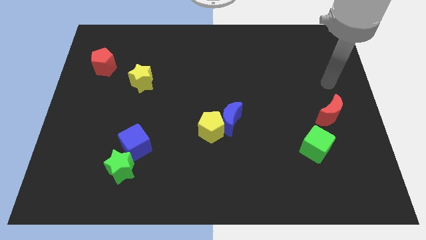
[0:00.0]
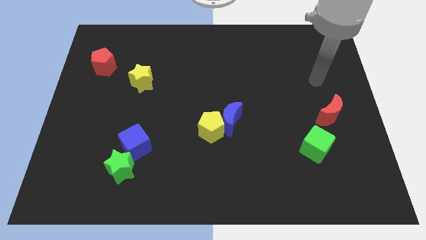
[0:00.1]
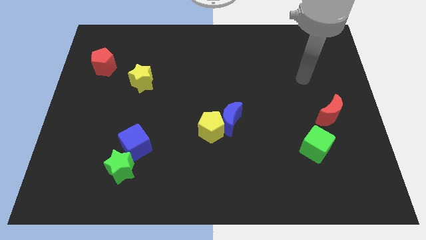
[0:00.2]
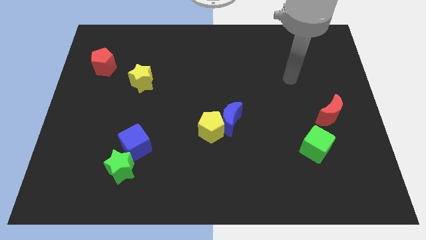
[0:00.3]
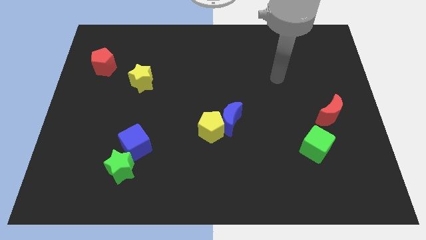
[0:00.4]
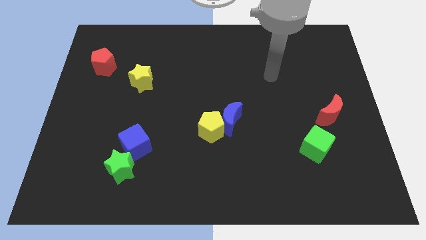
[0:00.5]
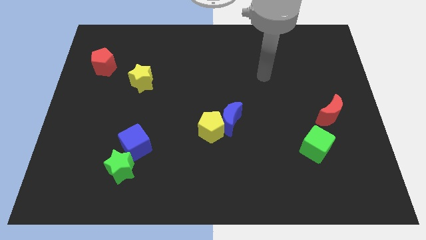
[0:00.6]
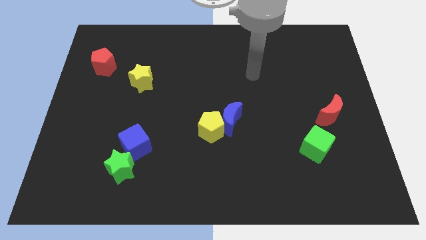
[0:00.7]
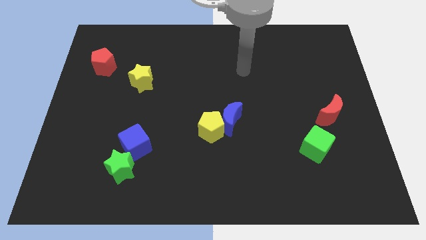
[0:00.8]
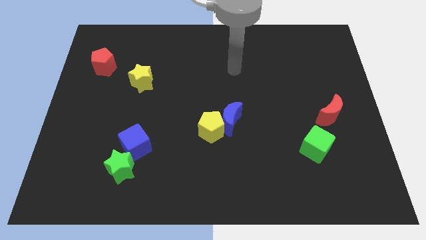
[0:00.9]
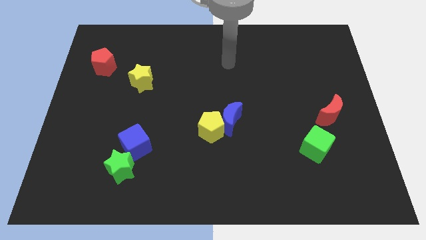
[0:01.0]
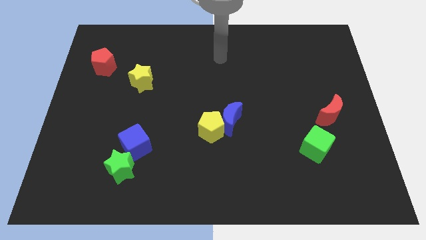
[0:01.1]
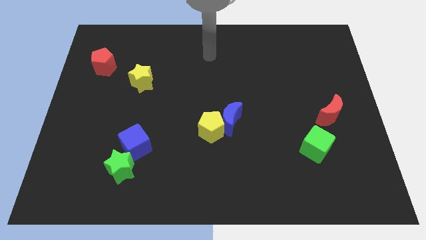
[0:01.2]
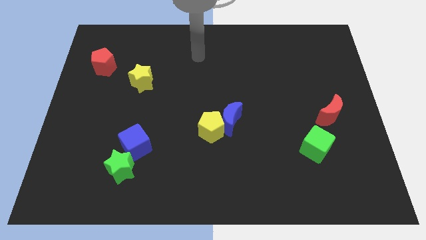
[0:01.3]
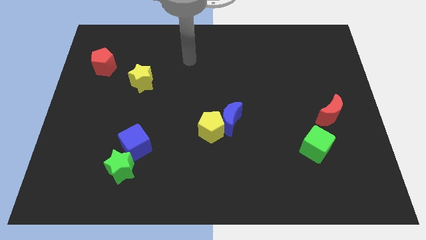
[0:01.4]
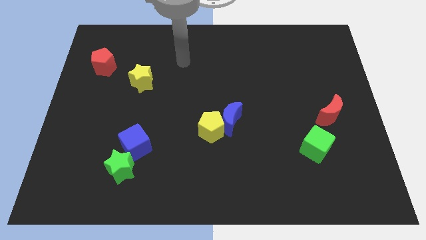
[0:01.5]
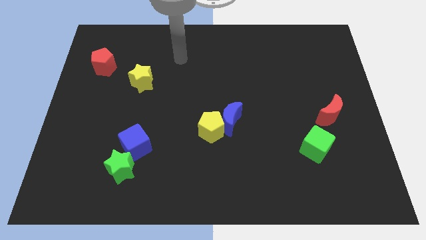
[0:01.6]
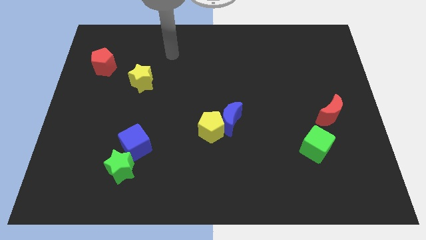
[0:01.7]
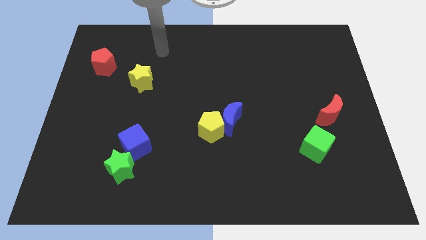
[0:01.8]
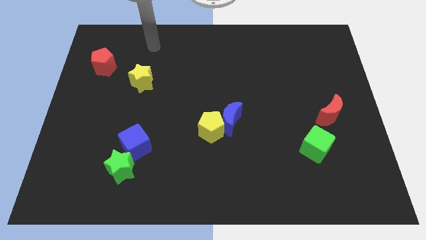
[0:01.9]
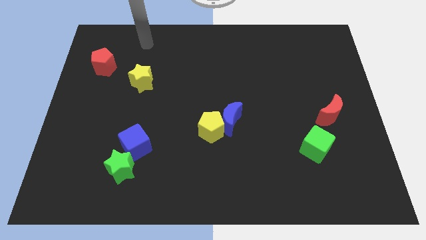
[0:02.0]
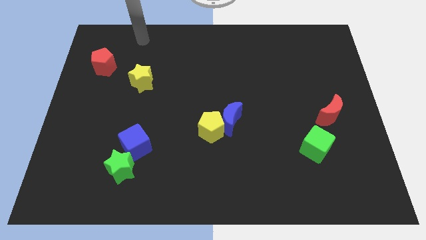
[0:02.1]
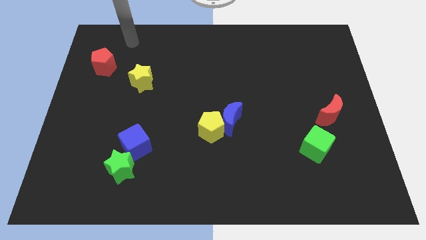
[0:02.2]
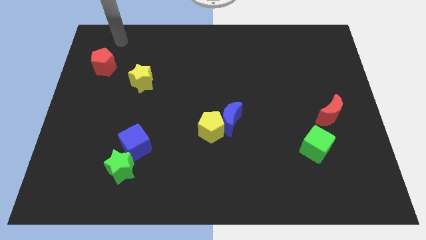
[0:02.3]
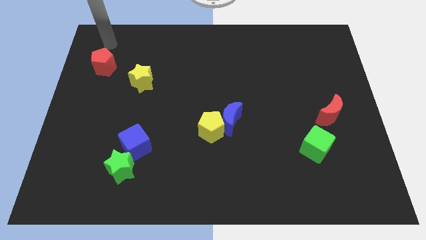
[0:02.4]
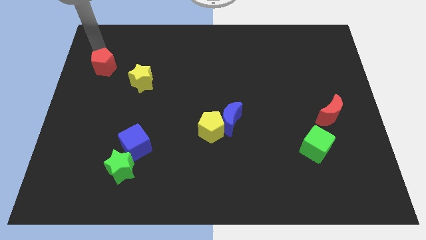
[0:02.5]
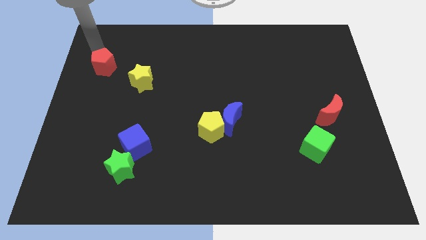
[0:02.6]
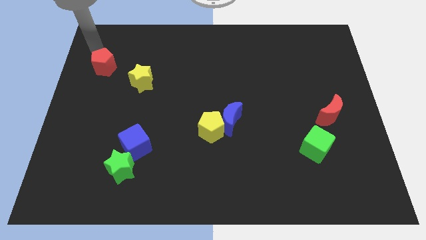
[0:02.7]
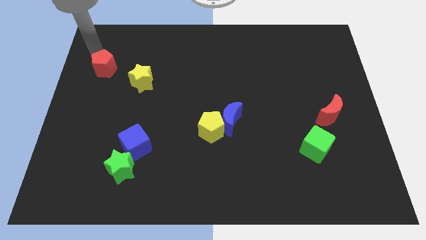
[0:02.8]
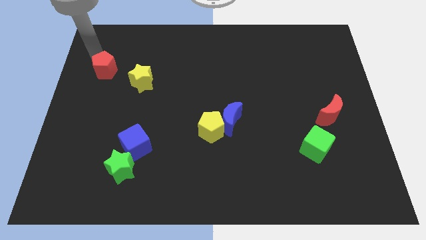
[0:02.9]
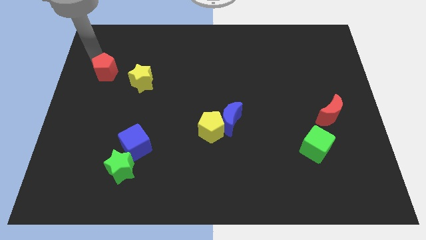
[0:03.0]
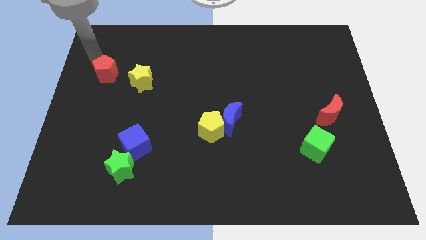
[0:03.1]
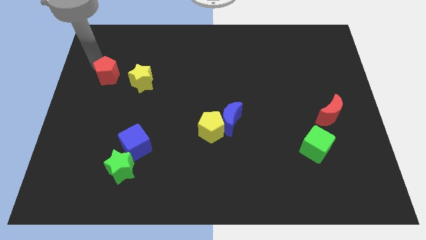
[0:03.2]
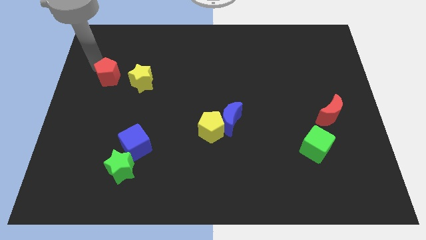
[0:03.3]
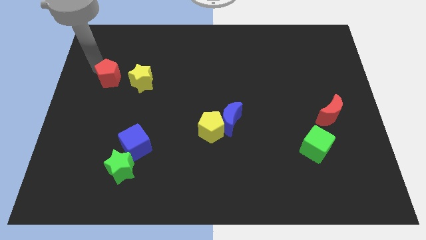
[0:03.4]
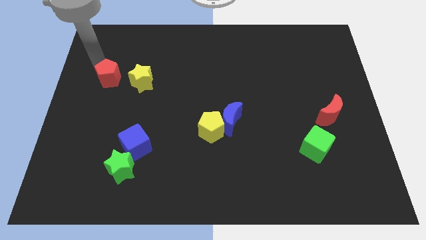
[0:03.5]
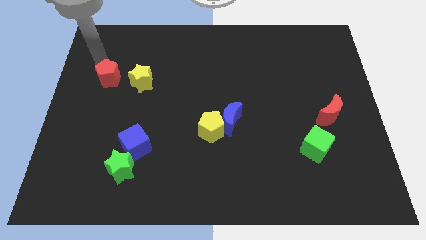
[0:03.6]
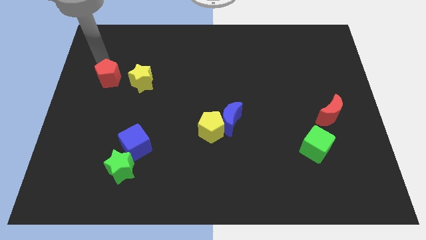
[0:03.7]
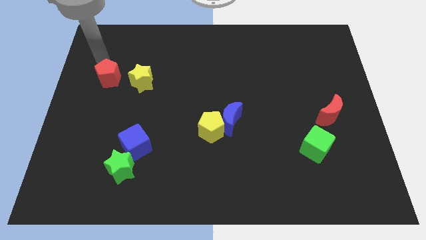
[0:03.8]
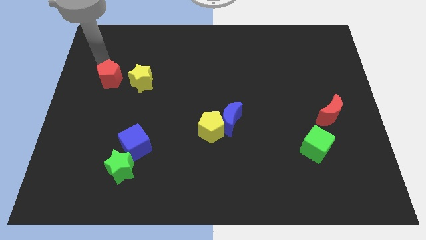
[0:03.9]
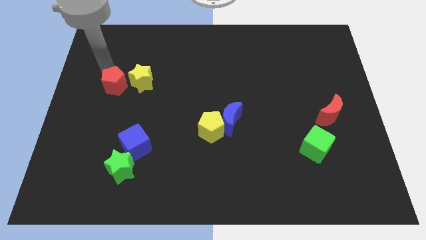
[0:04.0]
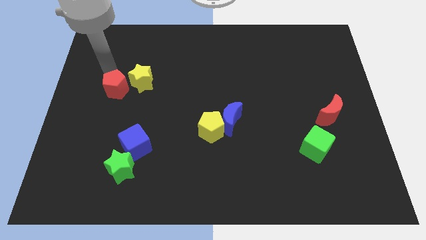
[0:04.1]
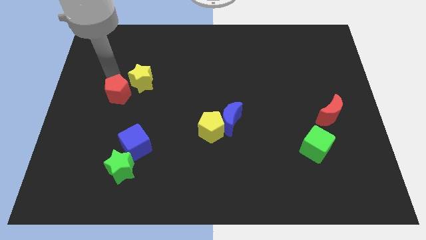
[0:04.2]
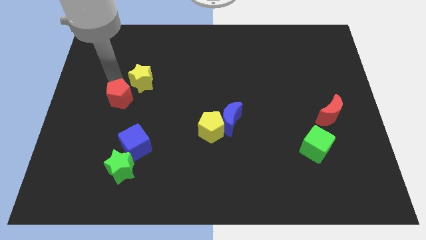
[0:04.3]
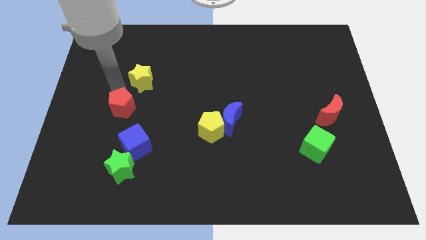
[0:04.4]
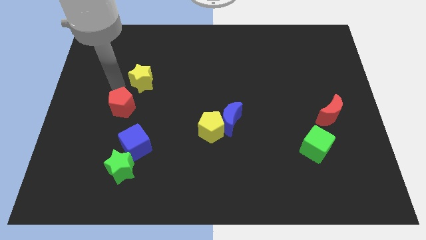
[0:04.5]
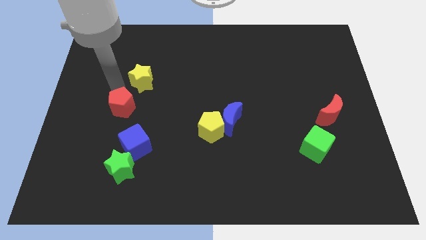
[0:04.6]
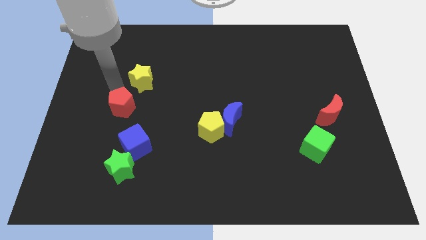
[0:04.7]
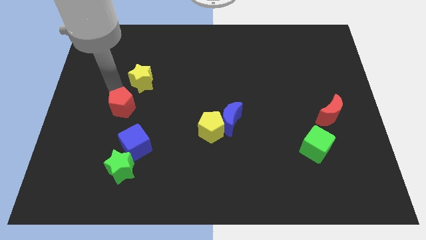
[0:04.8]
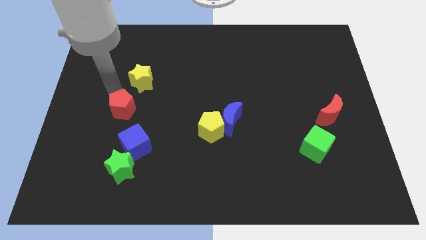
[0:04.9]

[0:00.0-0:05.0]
put the red pentagon above the green star

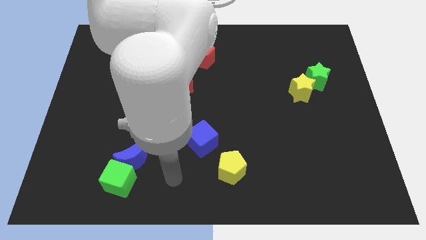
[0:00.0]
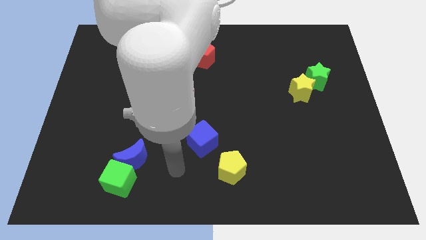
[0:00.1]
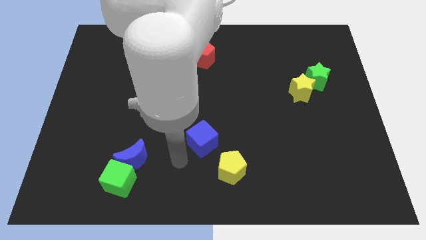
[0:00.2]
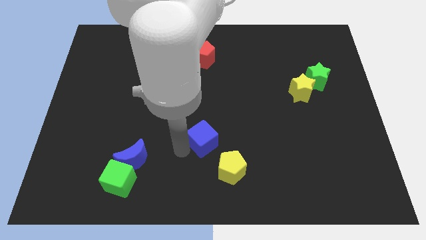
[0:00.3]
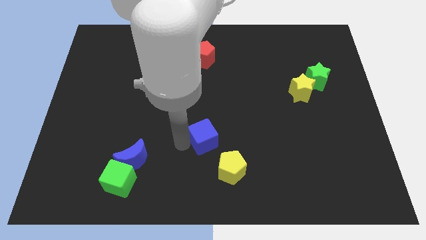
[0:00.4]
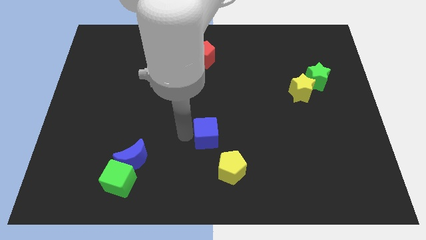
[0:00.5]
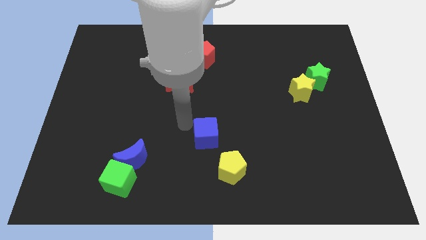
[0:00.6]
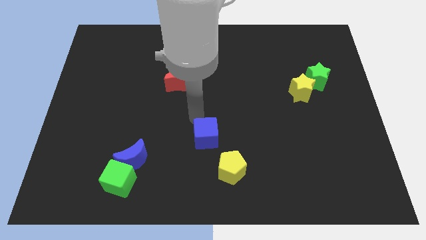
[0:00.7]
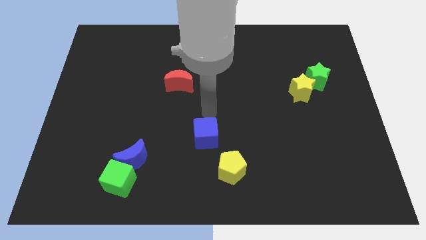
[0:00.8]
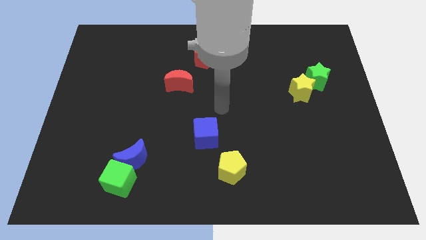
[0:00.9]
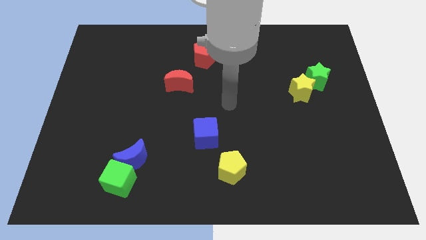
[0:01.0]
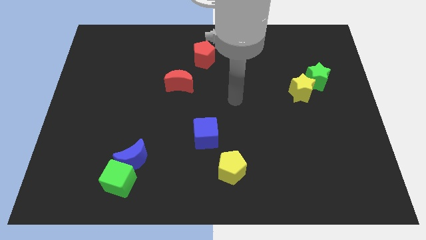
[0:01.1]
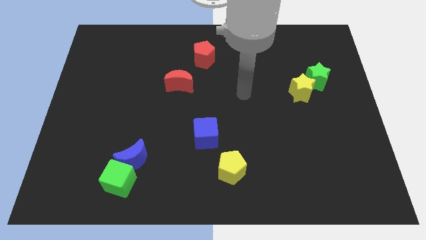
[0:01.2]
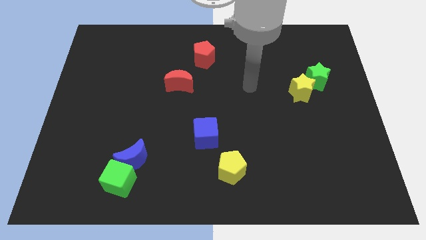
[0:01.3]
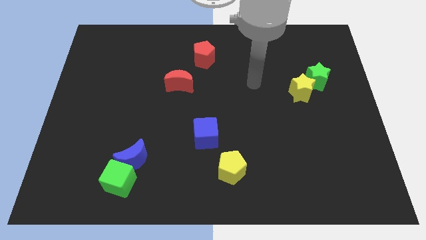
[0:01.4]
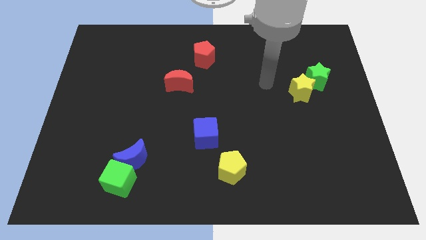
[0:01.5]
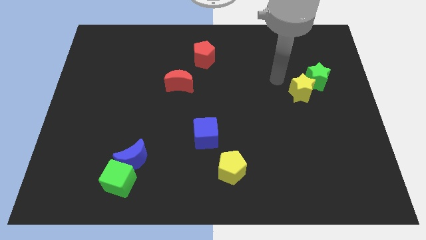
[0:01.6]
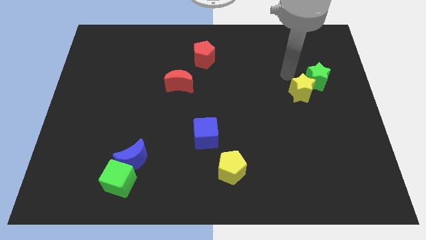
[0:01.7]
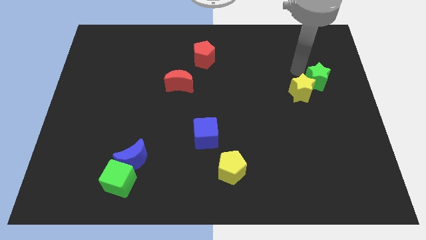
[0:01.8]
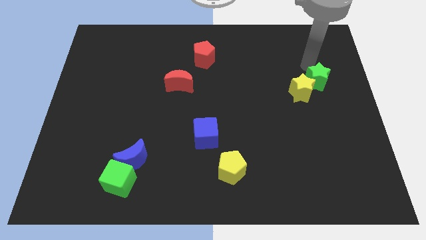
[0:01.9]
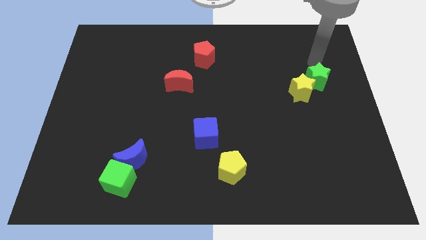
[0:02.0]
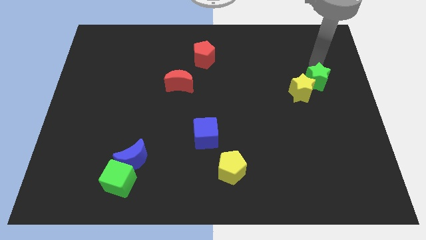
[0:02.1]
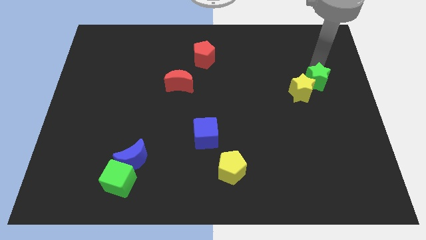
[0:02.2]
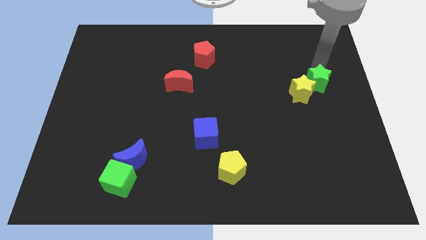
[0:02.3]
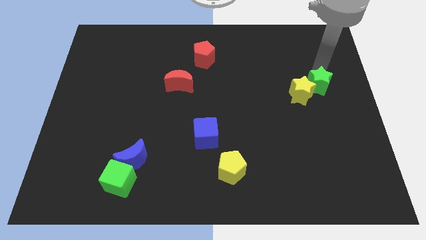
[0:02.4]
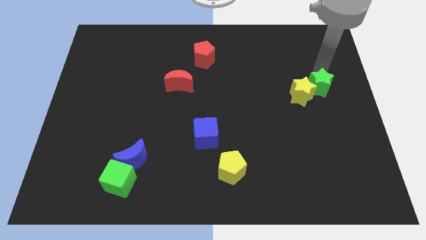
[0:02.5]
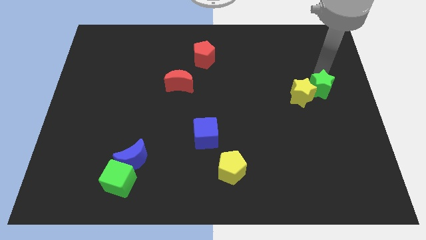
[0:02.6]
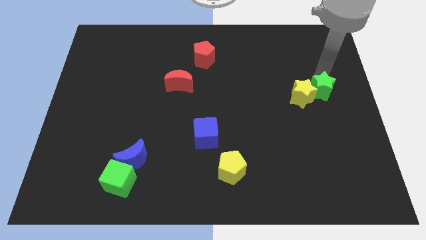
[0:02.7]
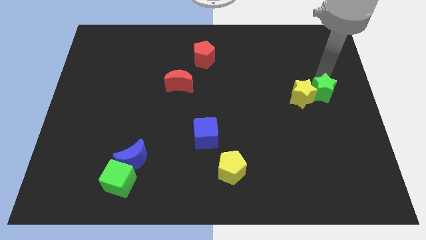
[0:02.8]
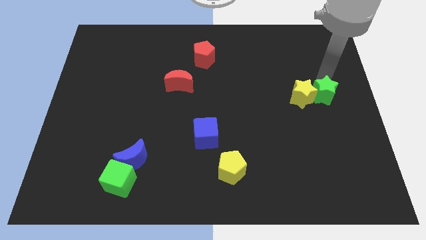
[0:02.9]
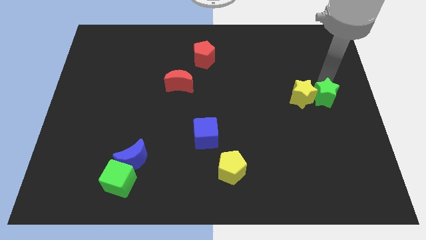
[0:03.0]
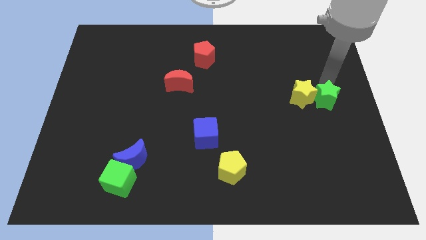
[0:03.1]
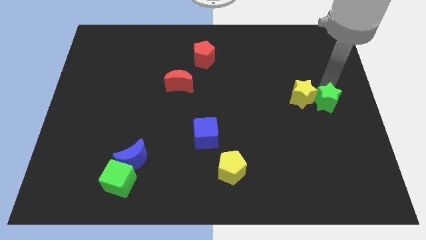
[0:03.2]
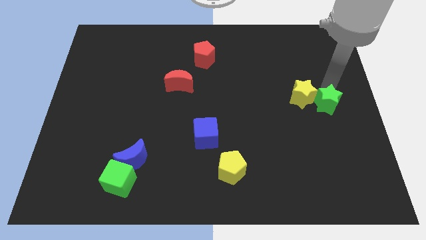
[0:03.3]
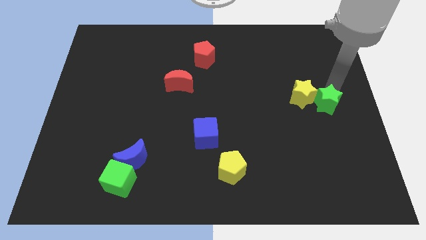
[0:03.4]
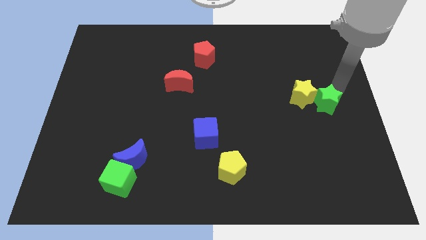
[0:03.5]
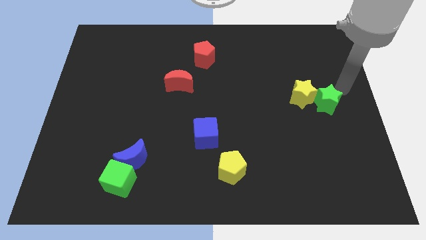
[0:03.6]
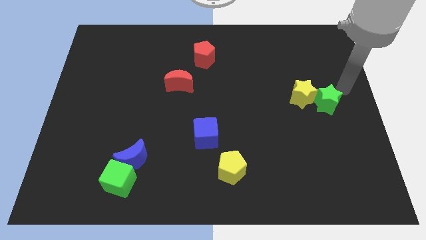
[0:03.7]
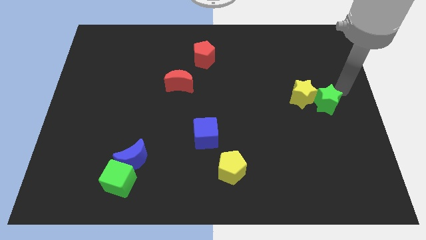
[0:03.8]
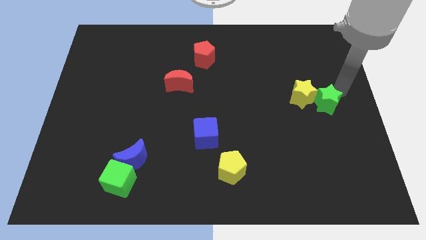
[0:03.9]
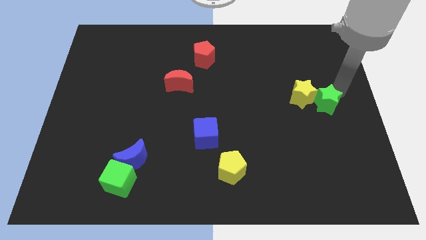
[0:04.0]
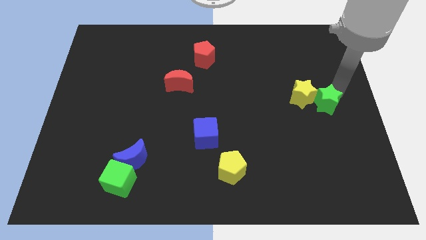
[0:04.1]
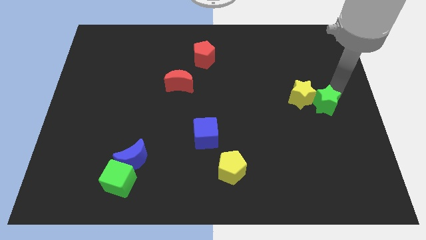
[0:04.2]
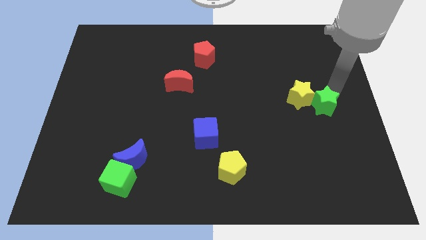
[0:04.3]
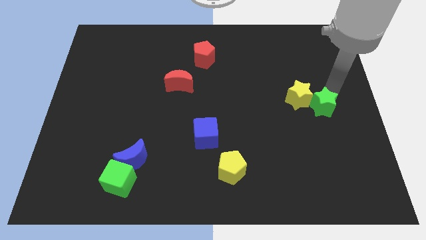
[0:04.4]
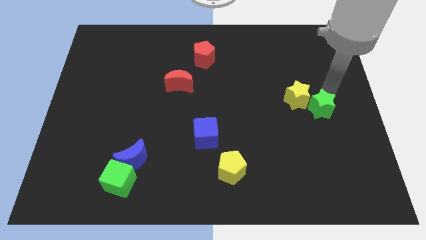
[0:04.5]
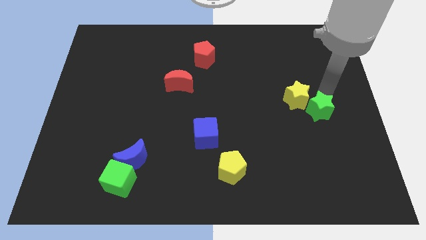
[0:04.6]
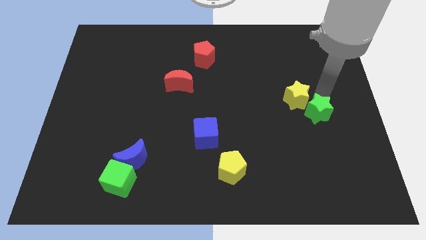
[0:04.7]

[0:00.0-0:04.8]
push the green star to the bottom of the yellow star
